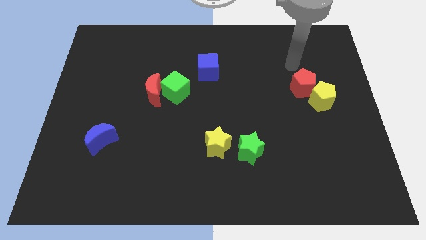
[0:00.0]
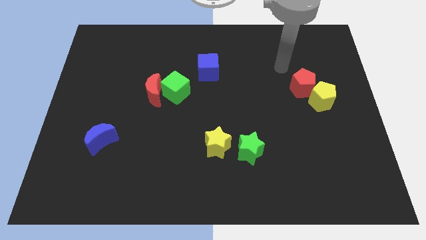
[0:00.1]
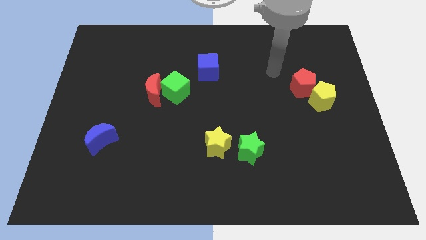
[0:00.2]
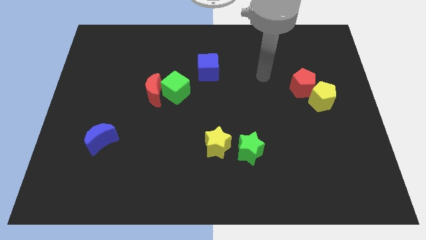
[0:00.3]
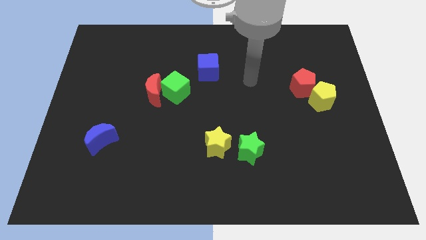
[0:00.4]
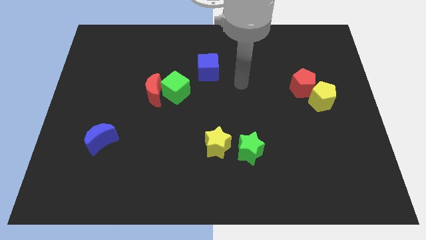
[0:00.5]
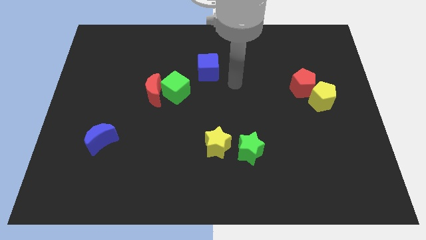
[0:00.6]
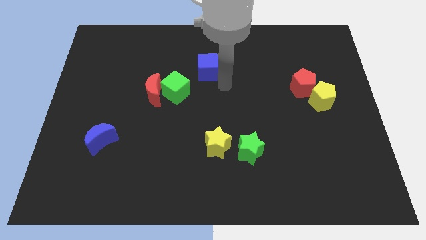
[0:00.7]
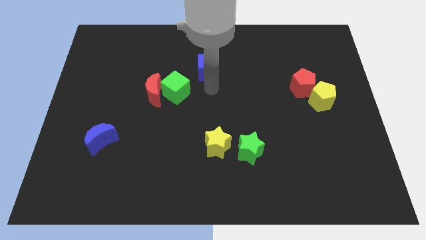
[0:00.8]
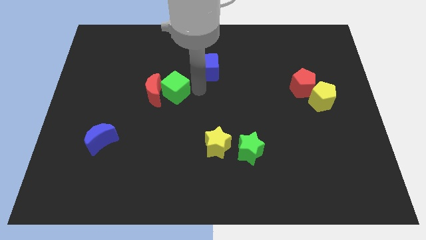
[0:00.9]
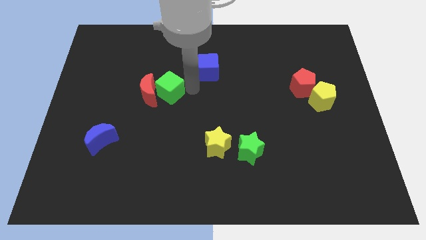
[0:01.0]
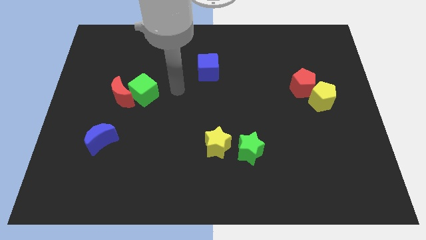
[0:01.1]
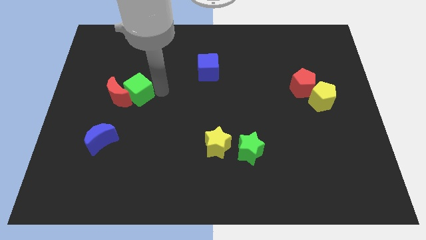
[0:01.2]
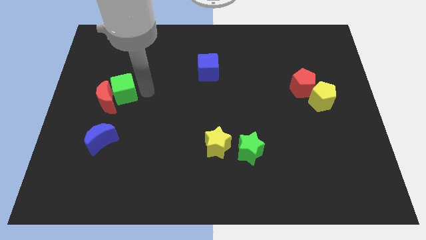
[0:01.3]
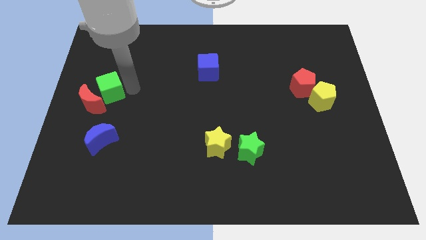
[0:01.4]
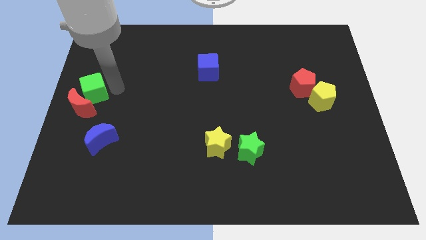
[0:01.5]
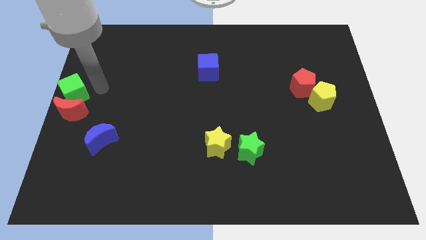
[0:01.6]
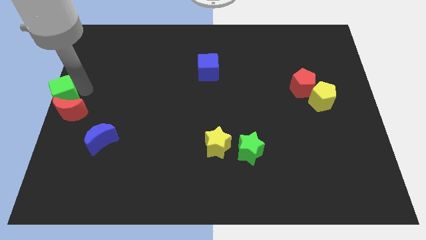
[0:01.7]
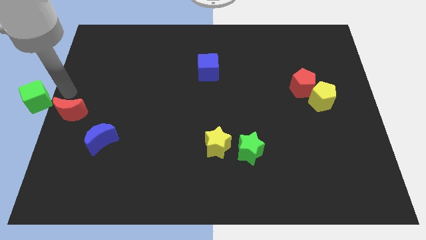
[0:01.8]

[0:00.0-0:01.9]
pull the red moon apart from the green cube

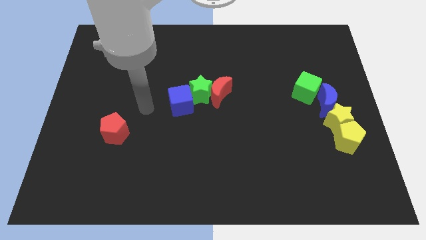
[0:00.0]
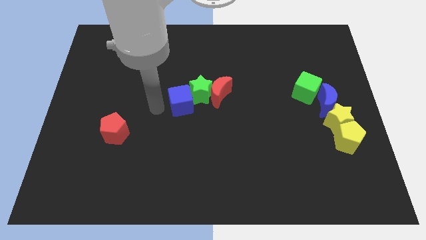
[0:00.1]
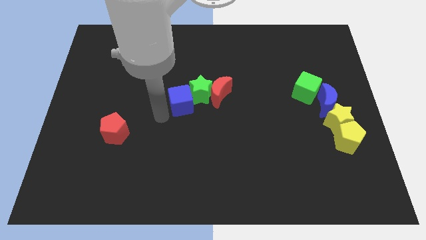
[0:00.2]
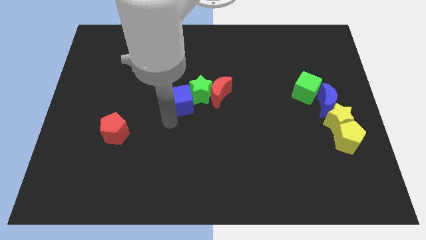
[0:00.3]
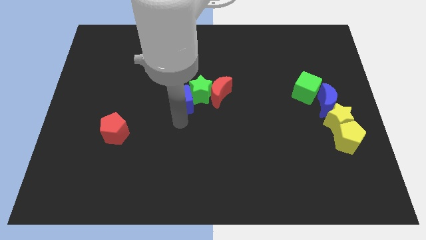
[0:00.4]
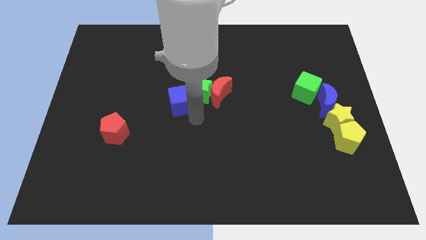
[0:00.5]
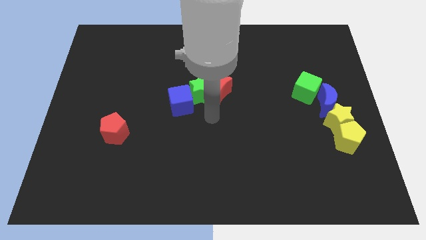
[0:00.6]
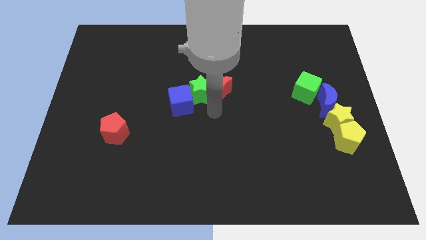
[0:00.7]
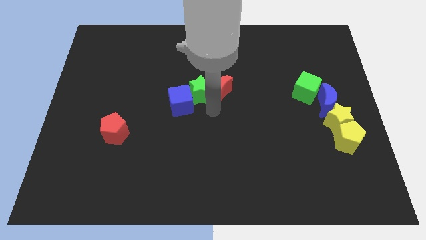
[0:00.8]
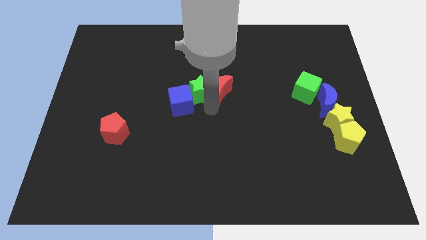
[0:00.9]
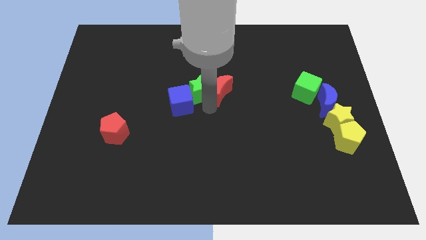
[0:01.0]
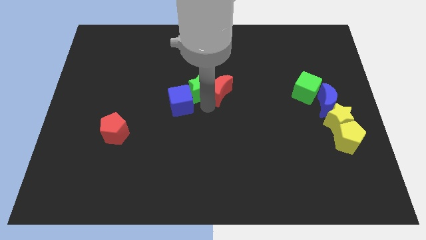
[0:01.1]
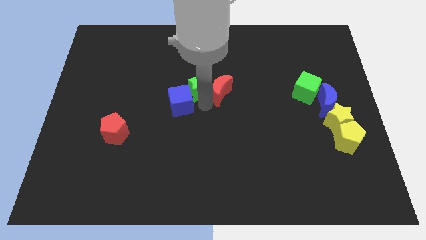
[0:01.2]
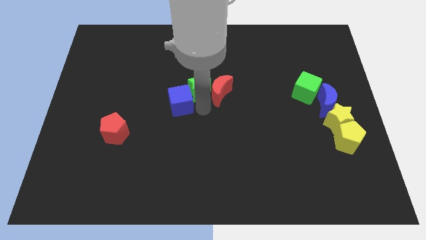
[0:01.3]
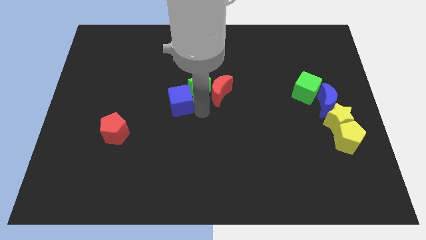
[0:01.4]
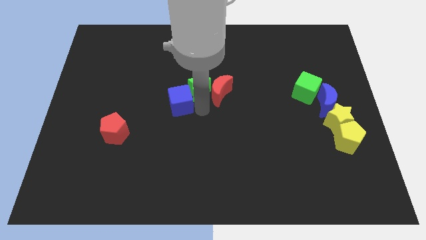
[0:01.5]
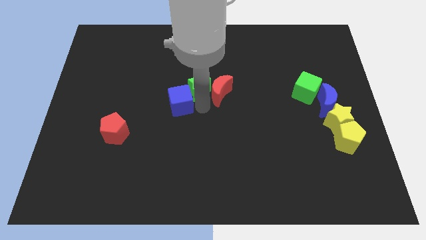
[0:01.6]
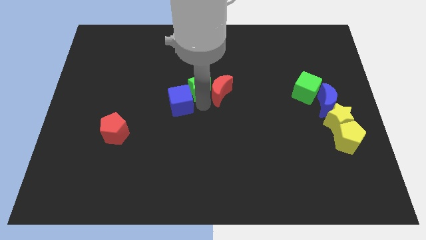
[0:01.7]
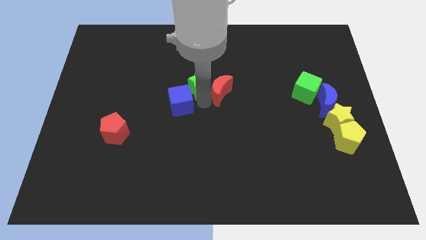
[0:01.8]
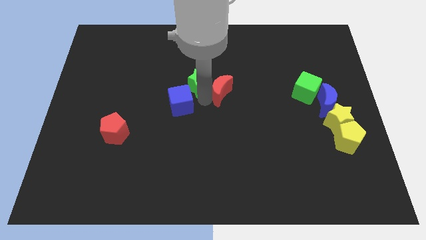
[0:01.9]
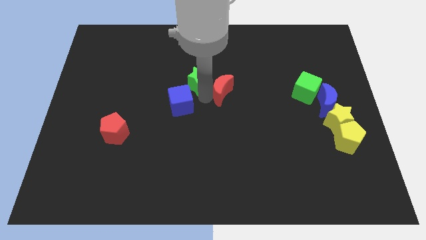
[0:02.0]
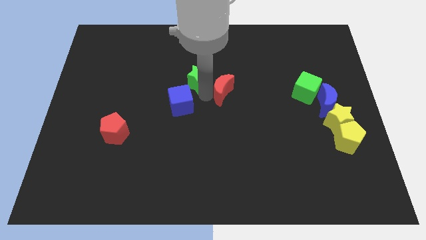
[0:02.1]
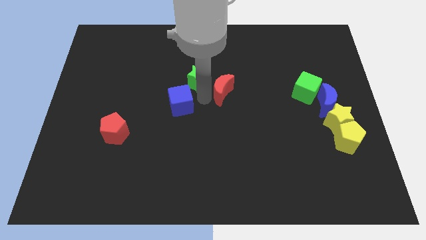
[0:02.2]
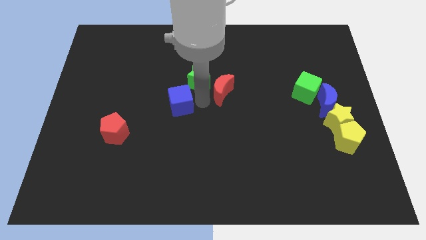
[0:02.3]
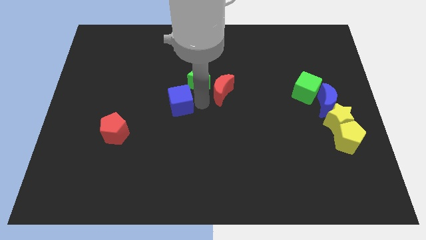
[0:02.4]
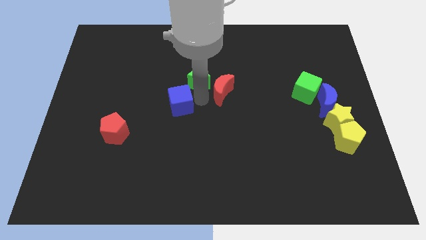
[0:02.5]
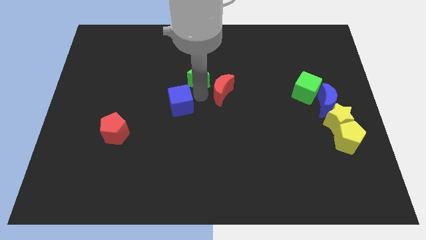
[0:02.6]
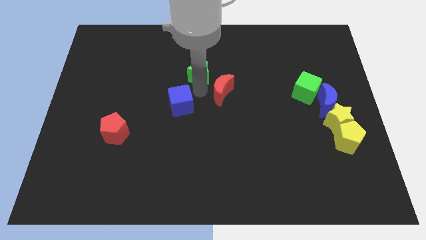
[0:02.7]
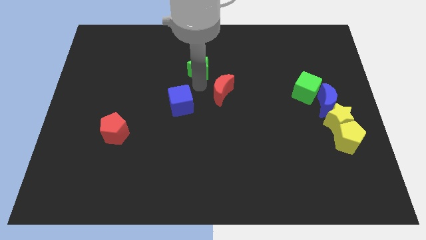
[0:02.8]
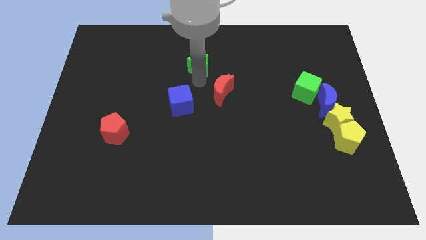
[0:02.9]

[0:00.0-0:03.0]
separate the green star from the red moon and blue cube

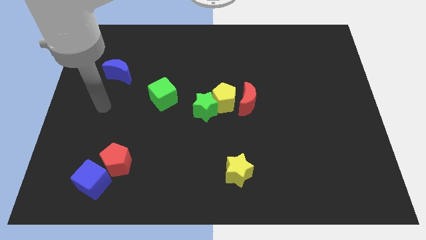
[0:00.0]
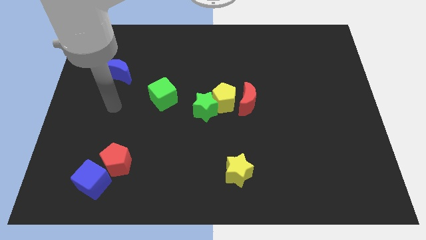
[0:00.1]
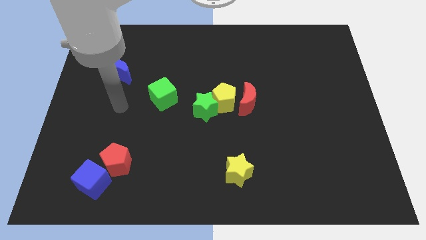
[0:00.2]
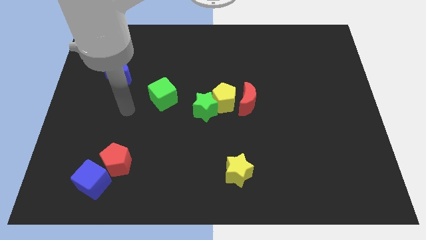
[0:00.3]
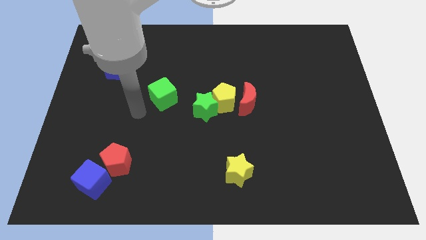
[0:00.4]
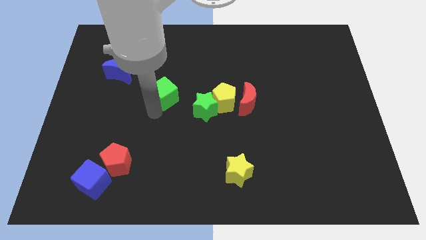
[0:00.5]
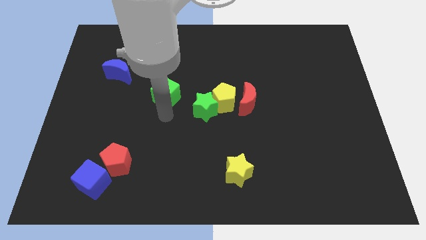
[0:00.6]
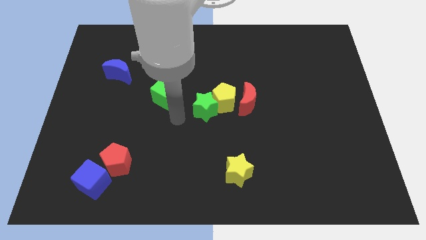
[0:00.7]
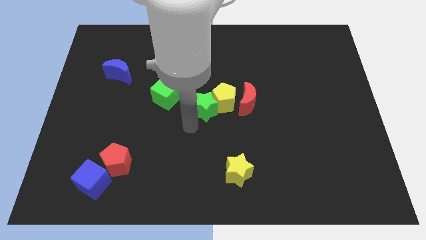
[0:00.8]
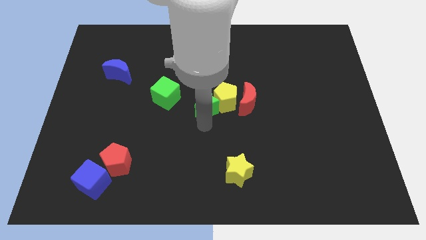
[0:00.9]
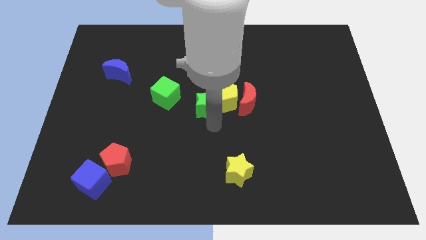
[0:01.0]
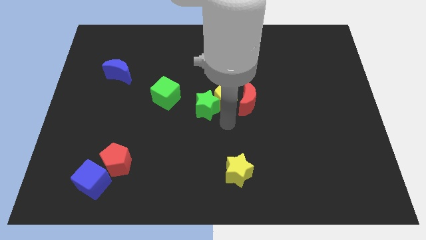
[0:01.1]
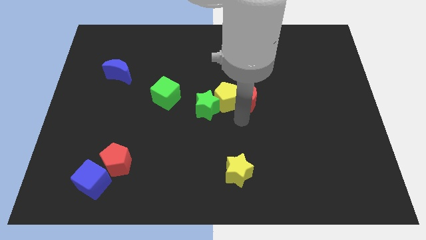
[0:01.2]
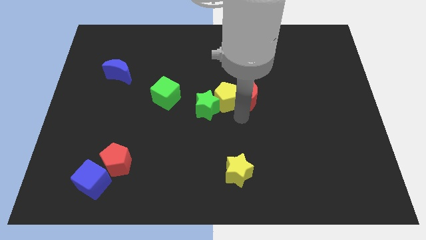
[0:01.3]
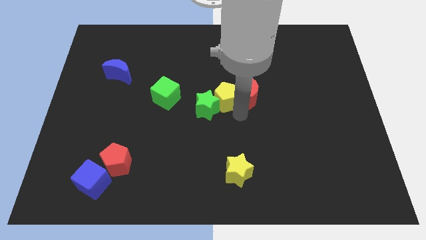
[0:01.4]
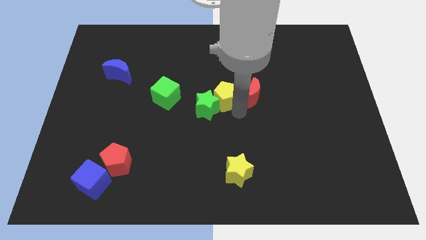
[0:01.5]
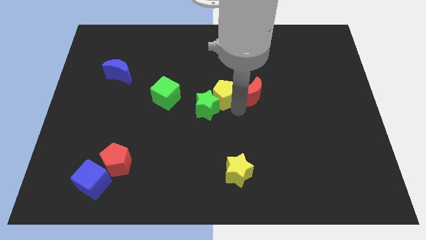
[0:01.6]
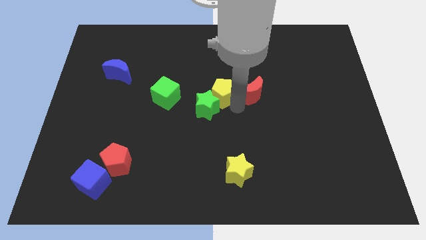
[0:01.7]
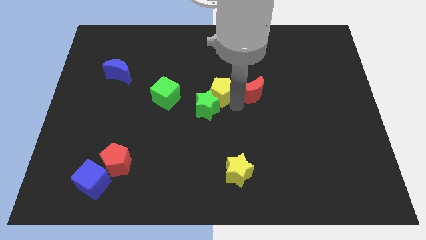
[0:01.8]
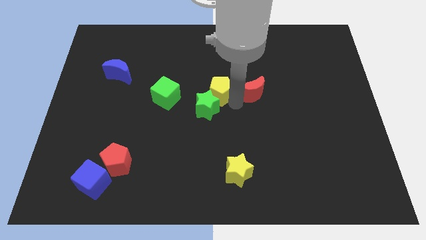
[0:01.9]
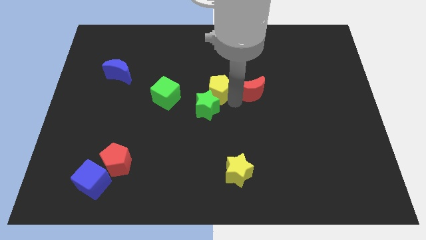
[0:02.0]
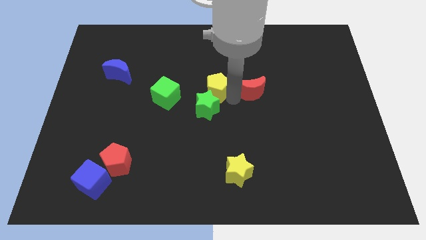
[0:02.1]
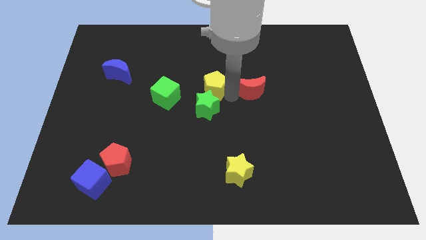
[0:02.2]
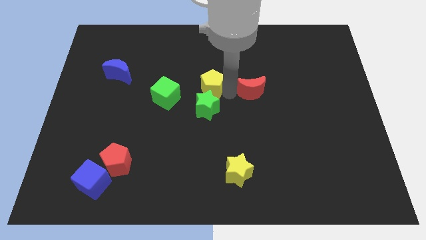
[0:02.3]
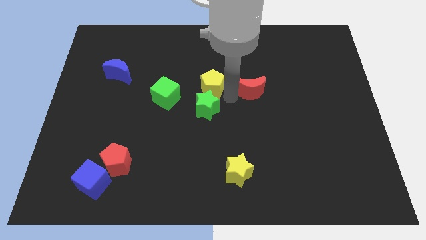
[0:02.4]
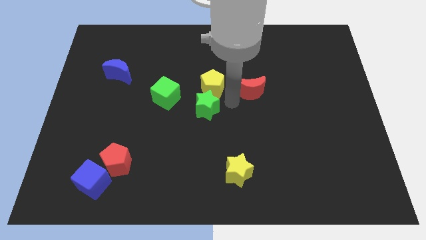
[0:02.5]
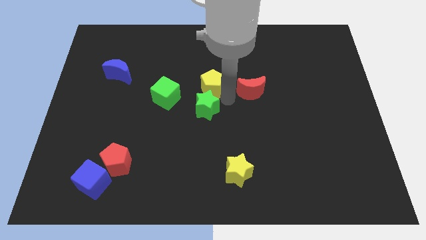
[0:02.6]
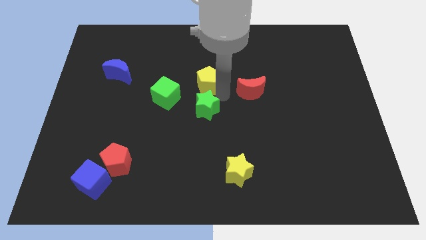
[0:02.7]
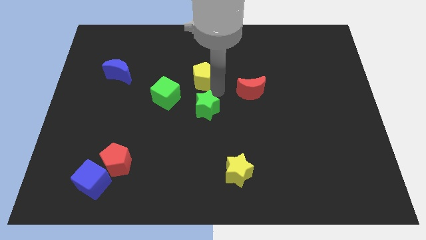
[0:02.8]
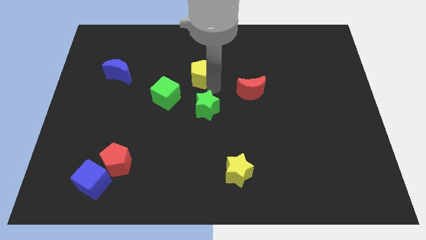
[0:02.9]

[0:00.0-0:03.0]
move the yellow pentagon away from the green star and red moon

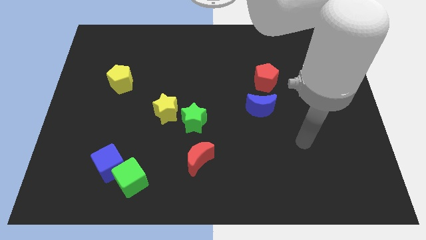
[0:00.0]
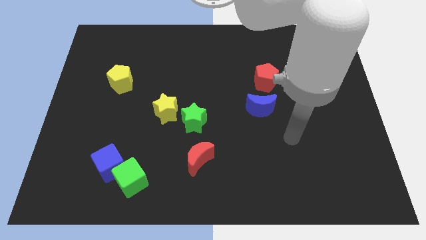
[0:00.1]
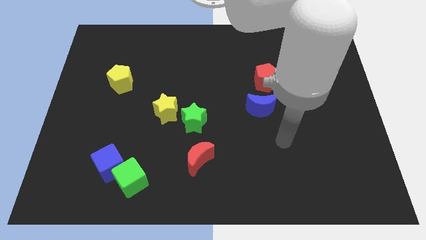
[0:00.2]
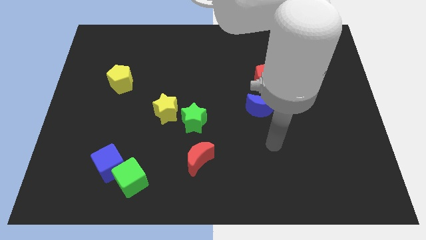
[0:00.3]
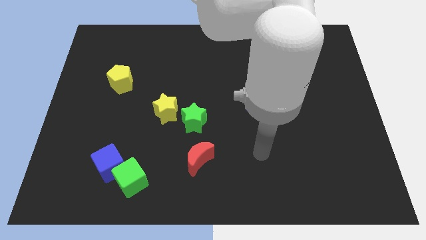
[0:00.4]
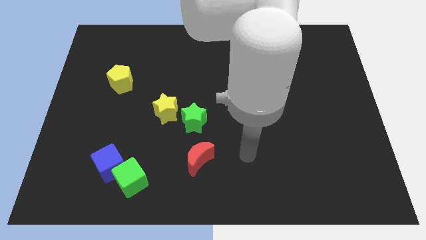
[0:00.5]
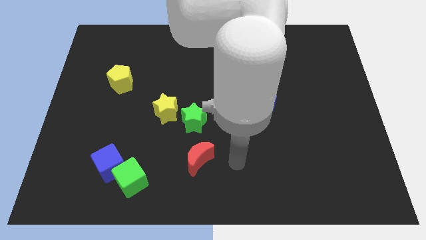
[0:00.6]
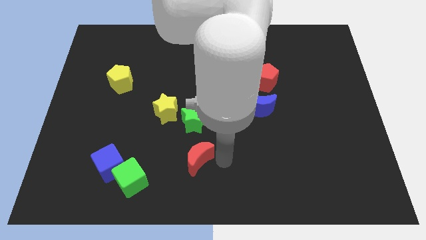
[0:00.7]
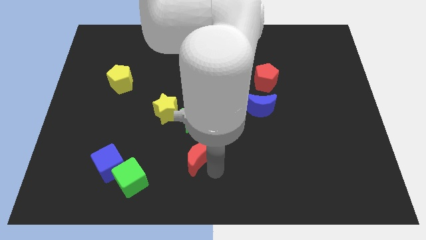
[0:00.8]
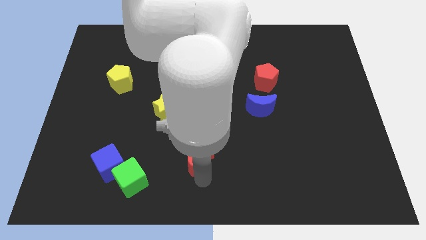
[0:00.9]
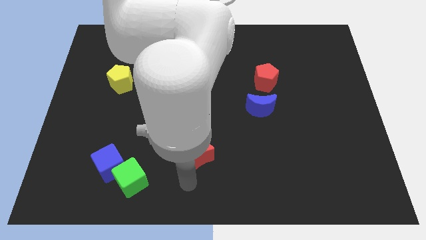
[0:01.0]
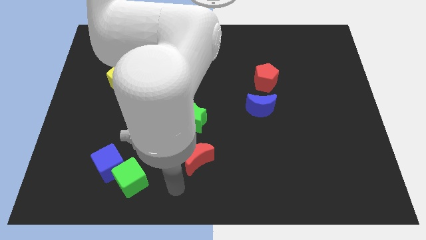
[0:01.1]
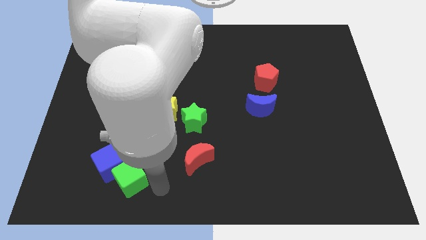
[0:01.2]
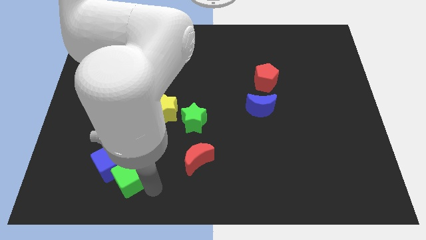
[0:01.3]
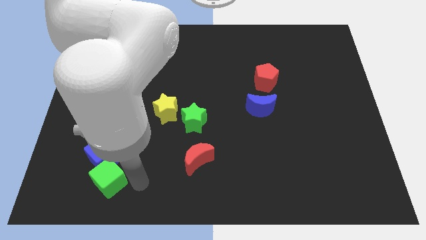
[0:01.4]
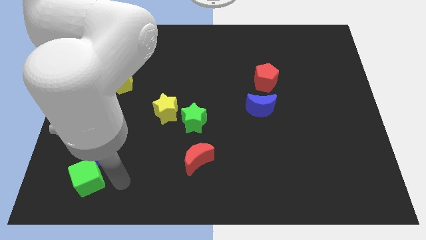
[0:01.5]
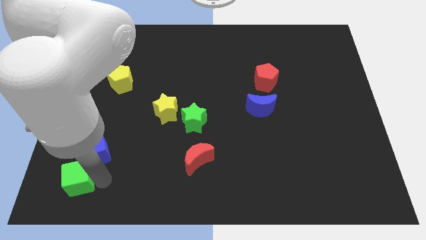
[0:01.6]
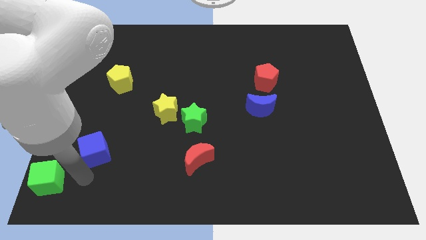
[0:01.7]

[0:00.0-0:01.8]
pull the blue cube apart from the green cube
